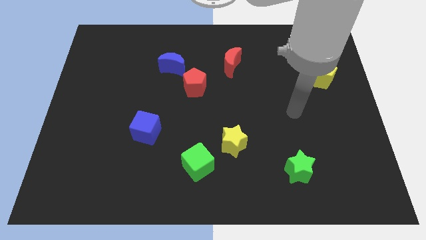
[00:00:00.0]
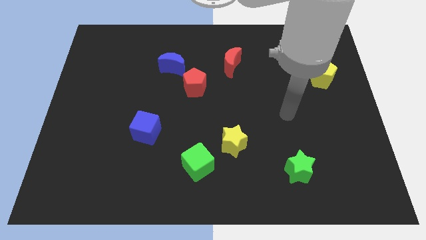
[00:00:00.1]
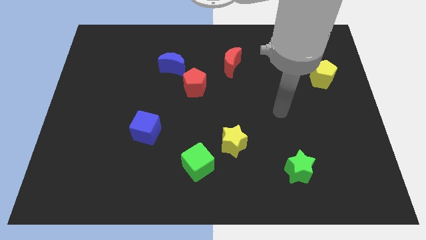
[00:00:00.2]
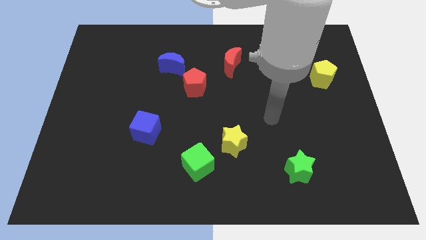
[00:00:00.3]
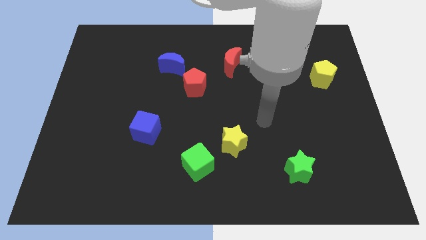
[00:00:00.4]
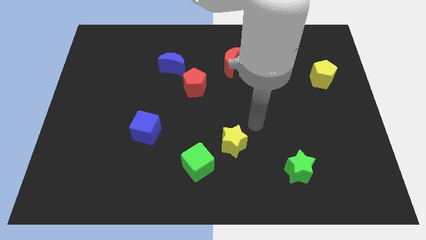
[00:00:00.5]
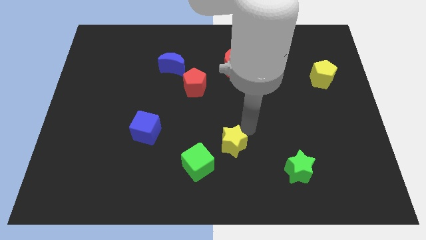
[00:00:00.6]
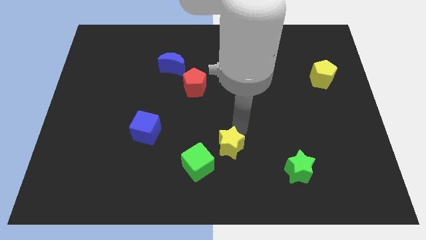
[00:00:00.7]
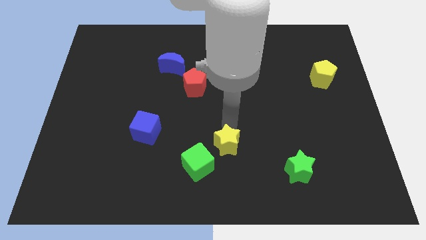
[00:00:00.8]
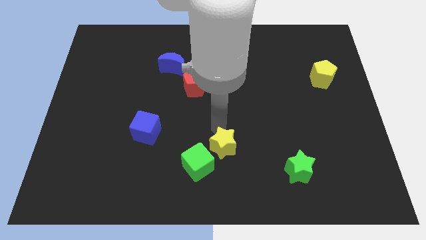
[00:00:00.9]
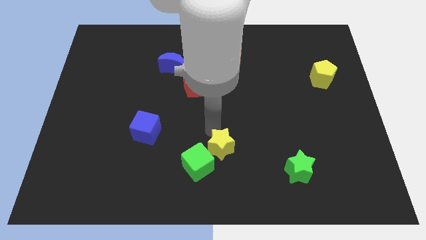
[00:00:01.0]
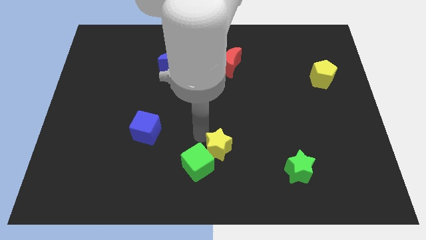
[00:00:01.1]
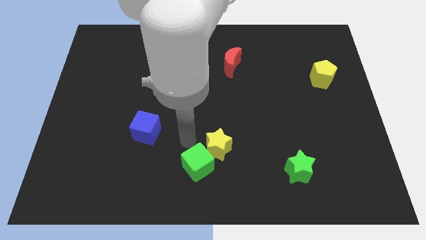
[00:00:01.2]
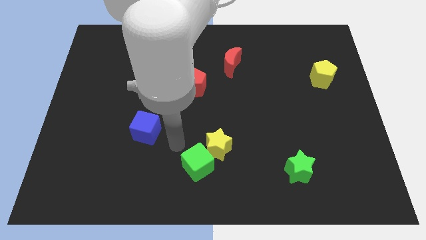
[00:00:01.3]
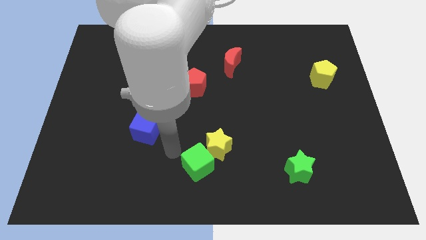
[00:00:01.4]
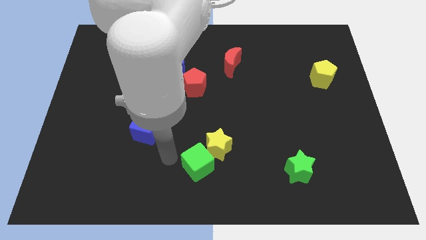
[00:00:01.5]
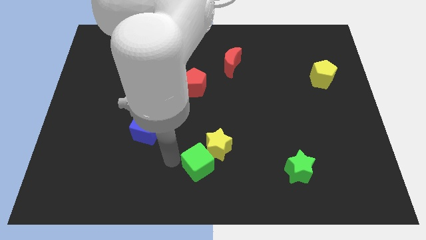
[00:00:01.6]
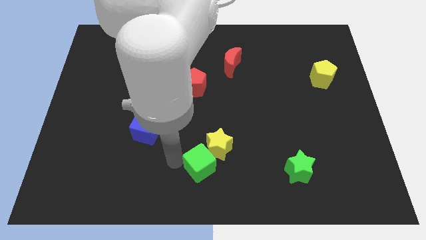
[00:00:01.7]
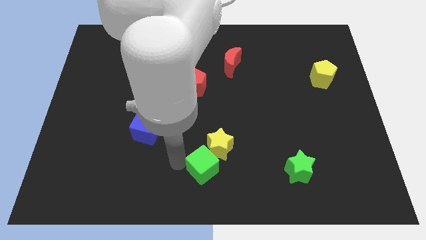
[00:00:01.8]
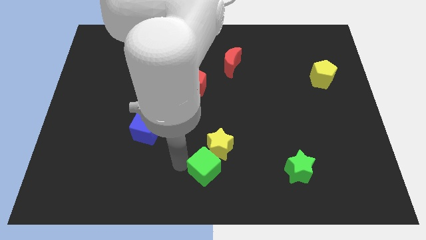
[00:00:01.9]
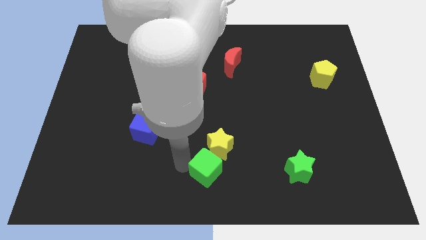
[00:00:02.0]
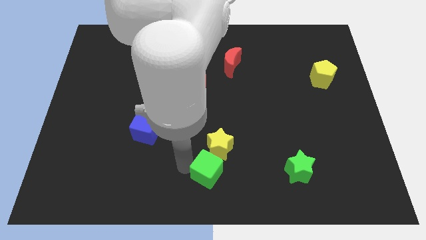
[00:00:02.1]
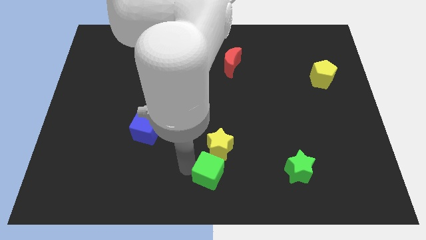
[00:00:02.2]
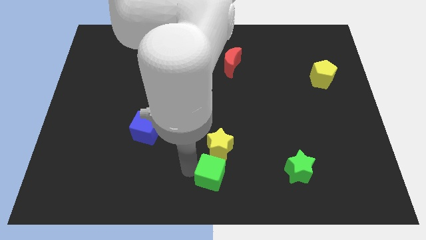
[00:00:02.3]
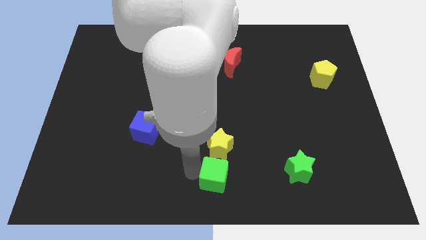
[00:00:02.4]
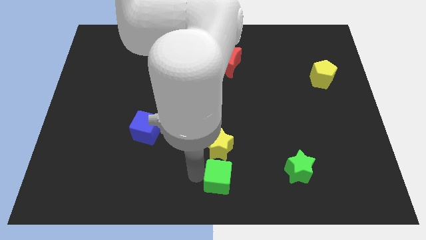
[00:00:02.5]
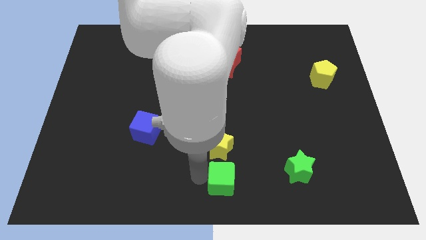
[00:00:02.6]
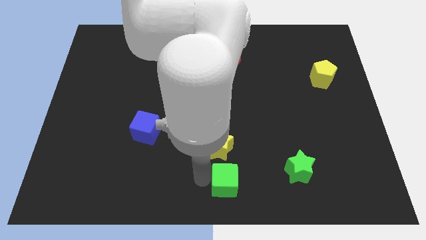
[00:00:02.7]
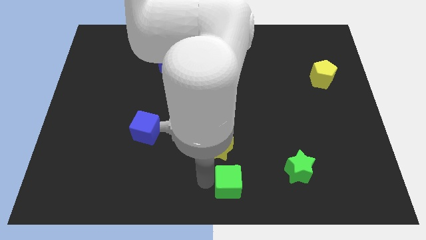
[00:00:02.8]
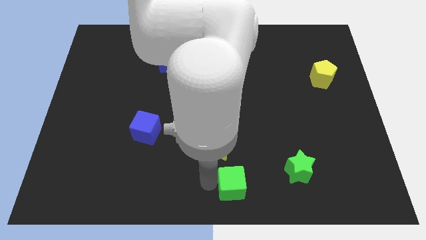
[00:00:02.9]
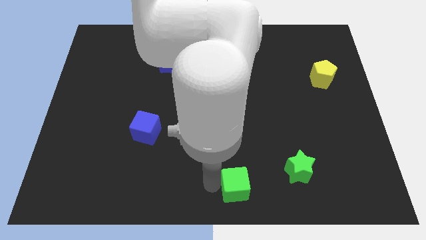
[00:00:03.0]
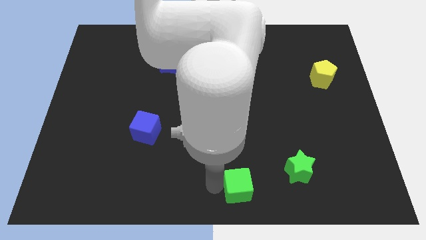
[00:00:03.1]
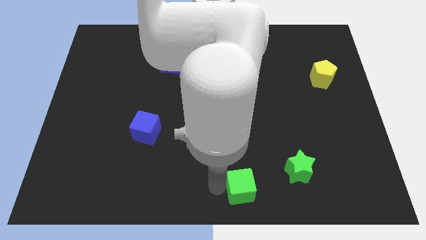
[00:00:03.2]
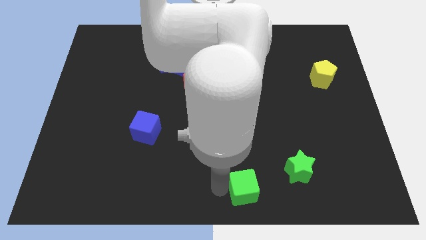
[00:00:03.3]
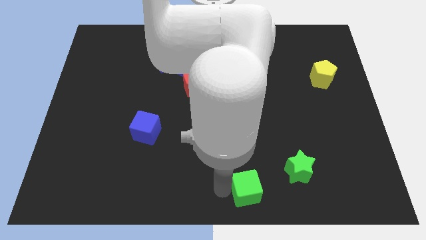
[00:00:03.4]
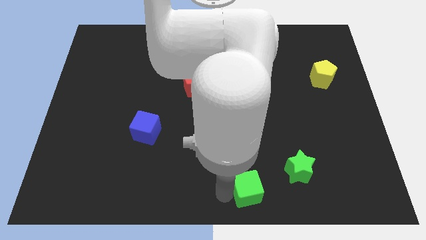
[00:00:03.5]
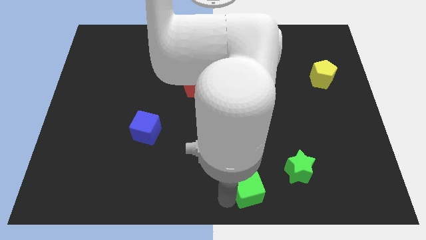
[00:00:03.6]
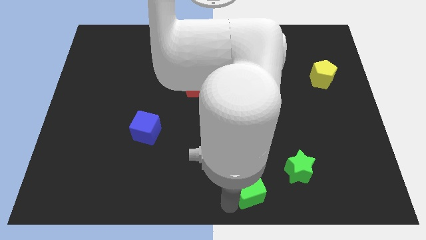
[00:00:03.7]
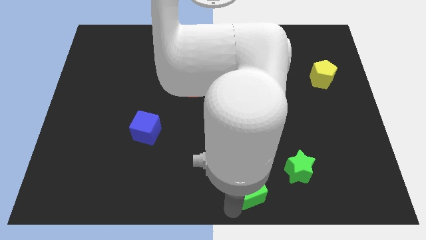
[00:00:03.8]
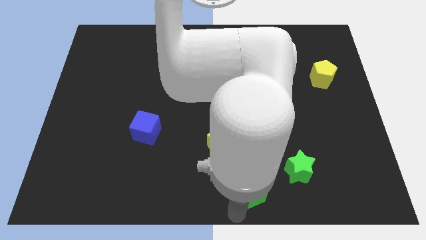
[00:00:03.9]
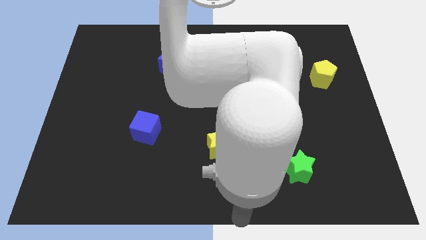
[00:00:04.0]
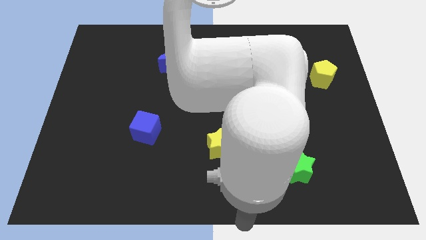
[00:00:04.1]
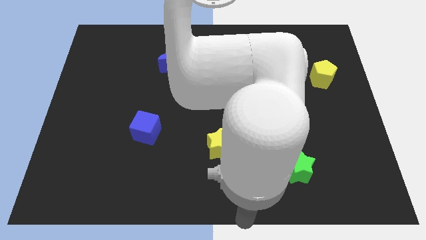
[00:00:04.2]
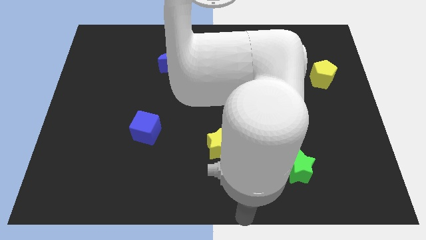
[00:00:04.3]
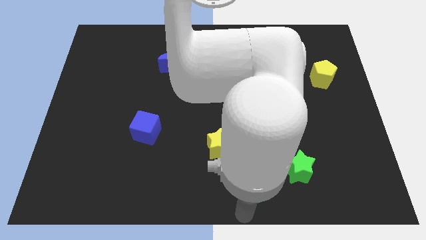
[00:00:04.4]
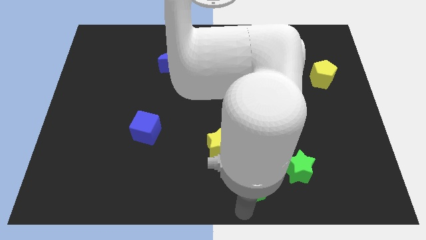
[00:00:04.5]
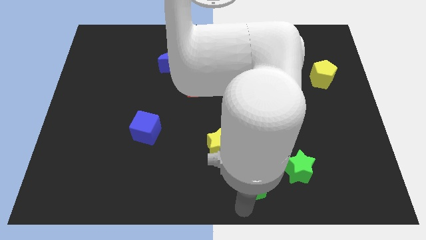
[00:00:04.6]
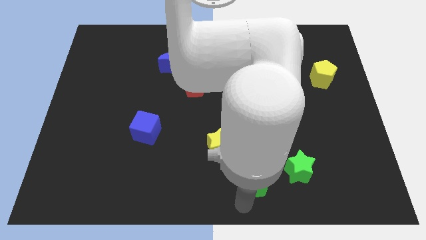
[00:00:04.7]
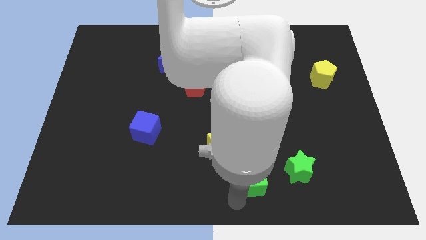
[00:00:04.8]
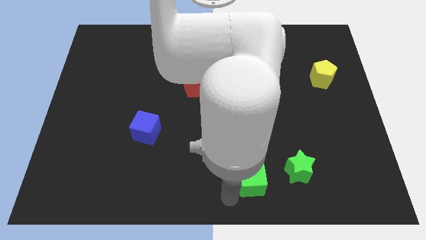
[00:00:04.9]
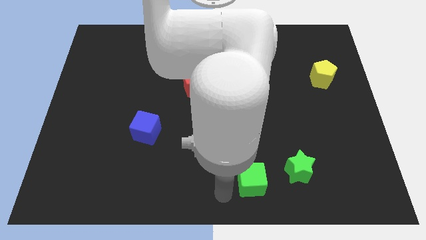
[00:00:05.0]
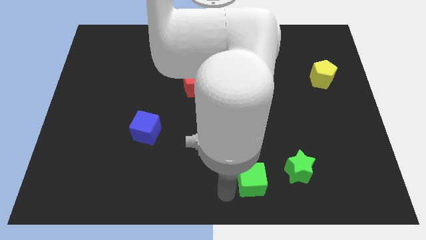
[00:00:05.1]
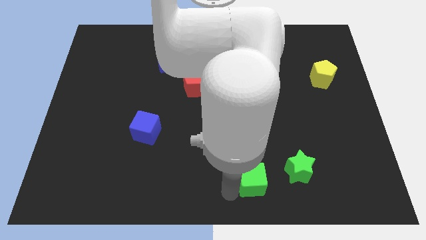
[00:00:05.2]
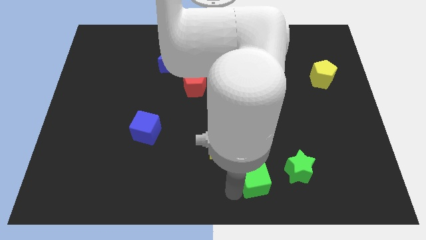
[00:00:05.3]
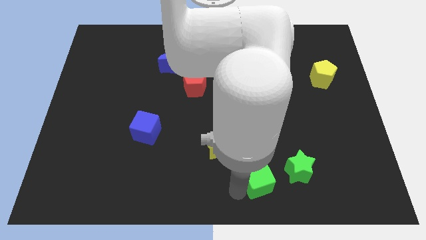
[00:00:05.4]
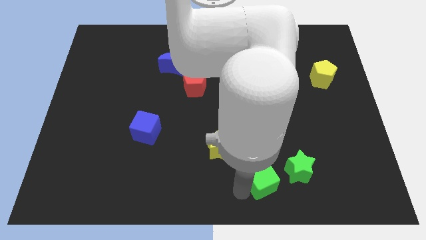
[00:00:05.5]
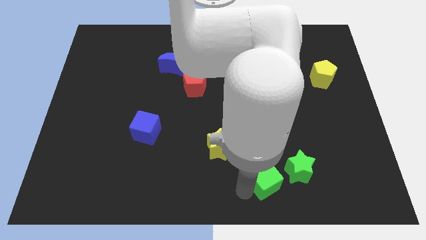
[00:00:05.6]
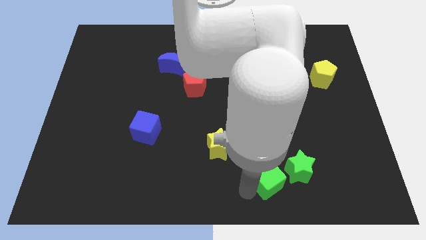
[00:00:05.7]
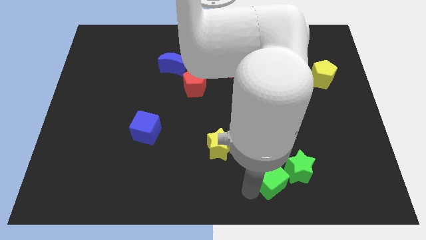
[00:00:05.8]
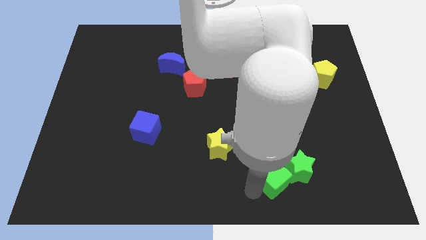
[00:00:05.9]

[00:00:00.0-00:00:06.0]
put the green cube close to the green star

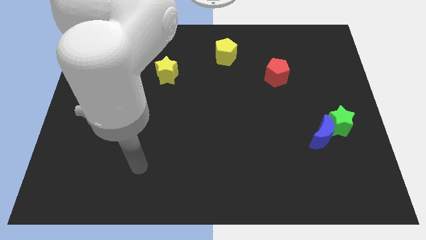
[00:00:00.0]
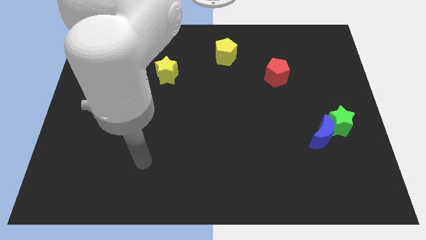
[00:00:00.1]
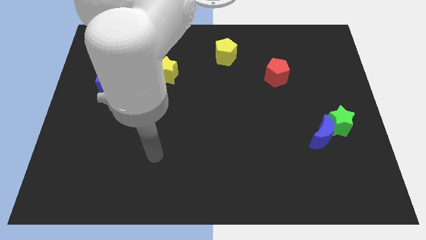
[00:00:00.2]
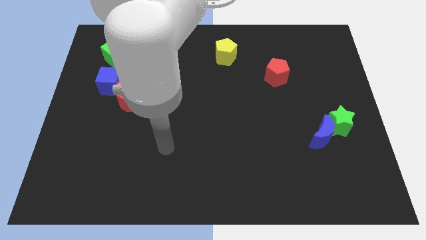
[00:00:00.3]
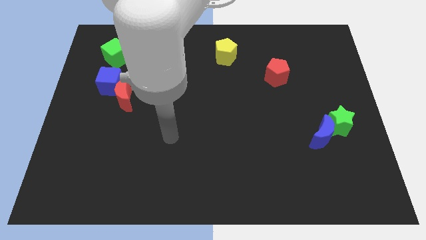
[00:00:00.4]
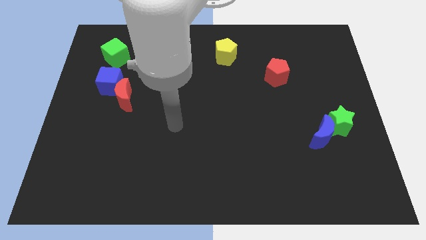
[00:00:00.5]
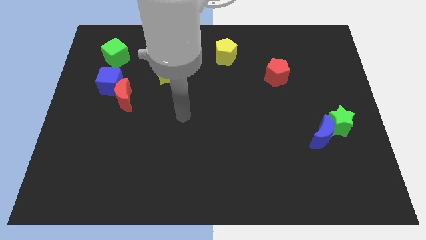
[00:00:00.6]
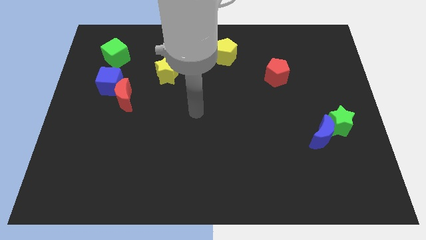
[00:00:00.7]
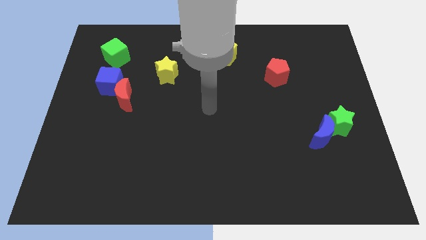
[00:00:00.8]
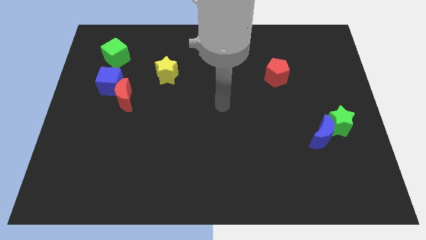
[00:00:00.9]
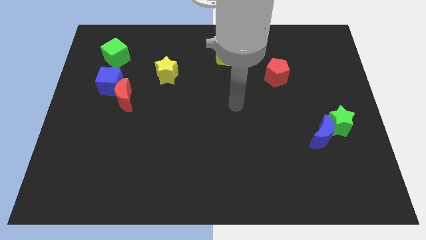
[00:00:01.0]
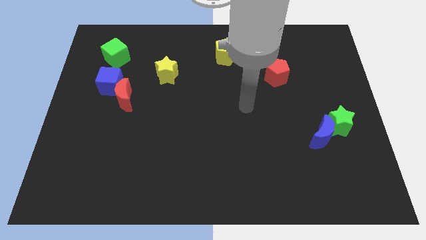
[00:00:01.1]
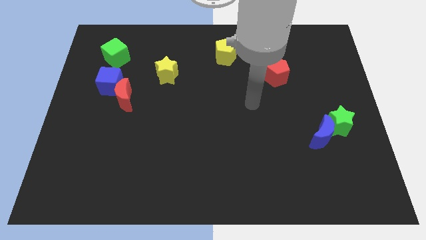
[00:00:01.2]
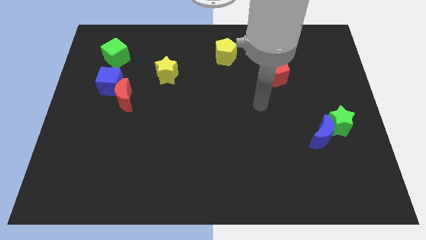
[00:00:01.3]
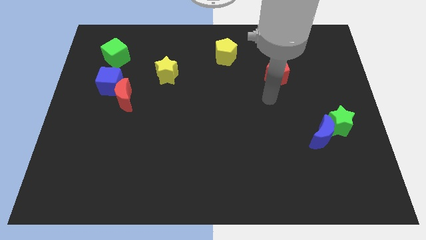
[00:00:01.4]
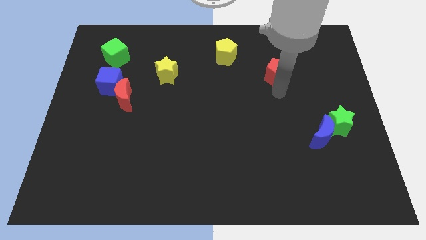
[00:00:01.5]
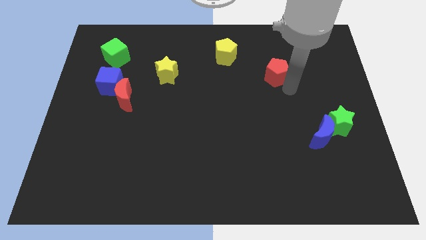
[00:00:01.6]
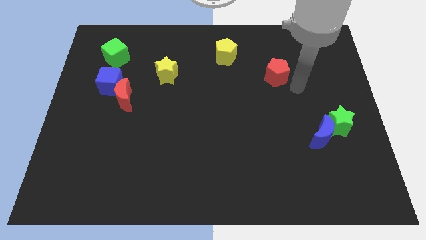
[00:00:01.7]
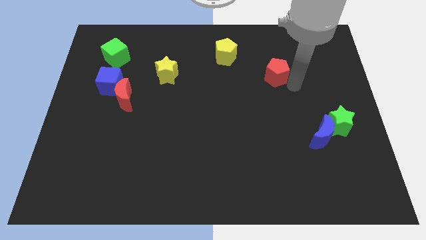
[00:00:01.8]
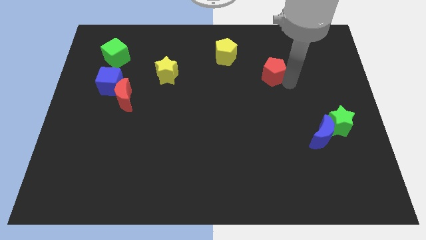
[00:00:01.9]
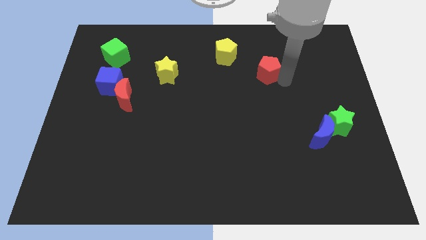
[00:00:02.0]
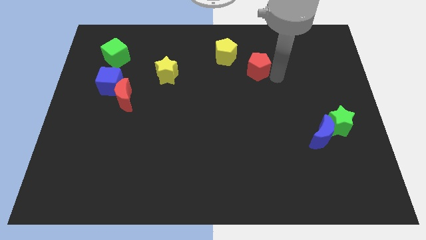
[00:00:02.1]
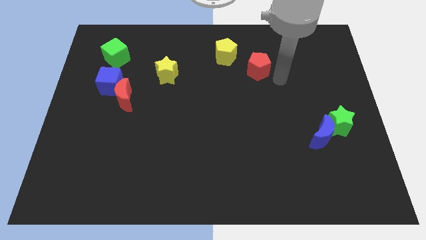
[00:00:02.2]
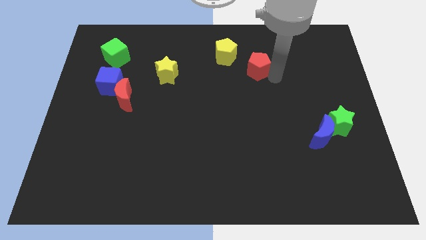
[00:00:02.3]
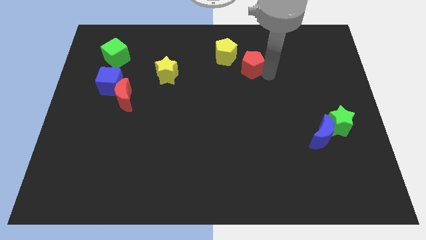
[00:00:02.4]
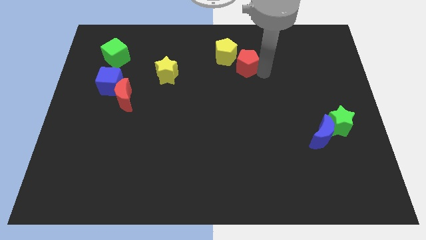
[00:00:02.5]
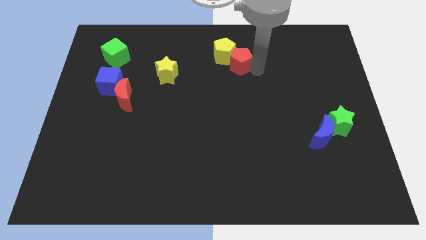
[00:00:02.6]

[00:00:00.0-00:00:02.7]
move the red pentagon close to the yellow pentagon
